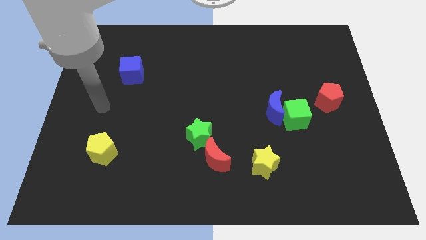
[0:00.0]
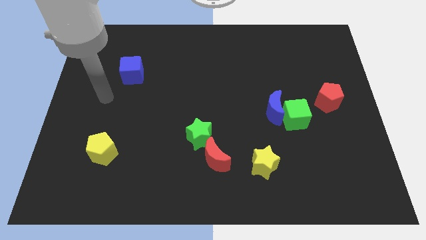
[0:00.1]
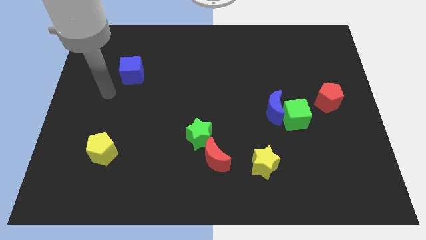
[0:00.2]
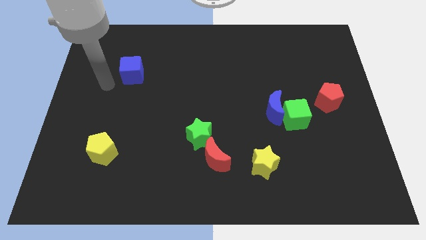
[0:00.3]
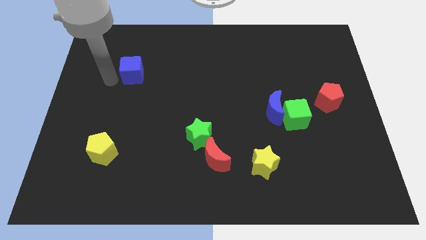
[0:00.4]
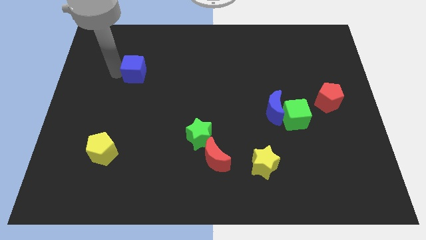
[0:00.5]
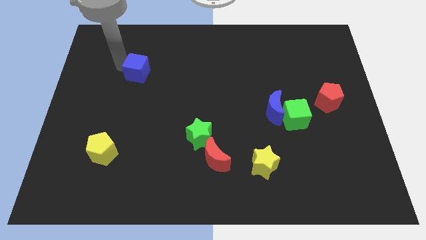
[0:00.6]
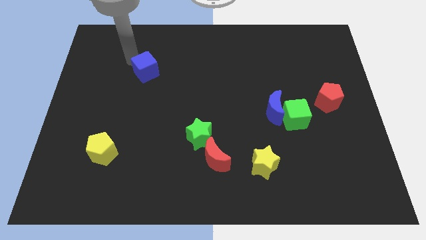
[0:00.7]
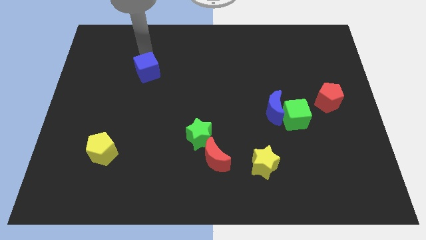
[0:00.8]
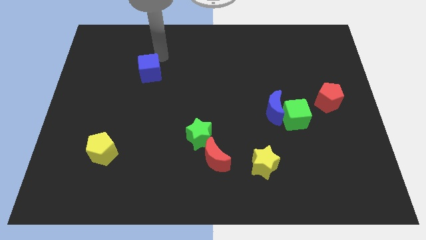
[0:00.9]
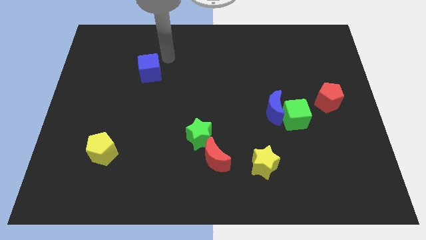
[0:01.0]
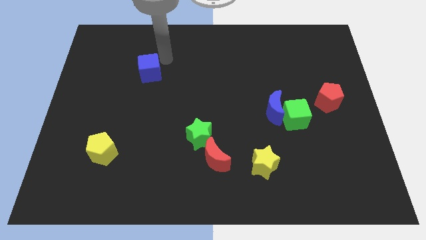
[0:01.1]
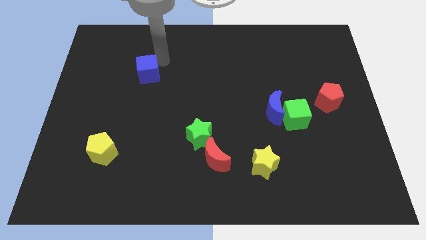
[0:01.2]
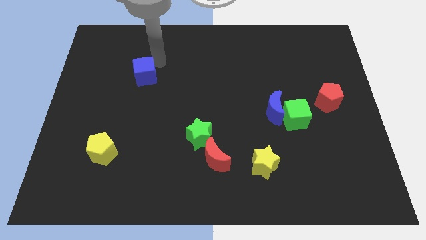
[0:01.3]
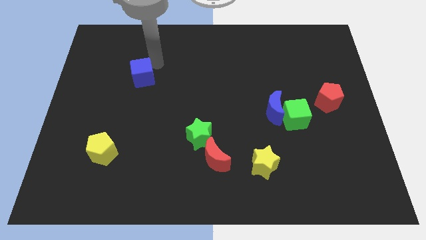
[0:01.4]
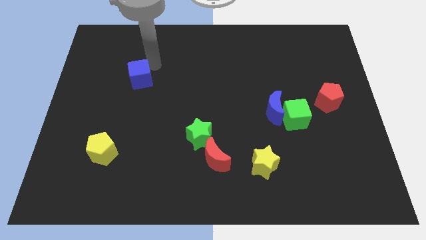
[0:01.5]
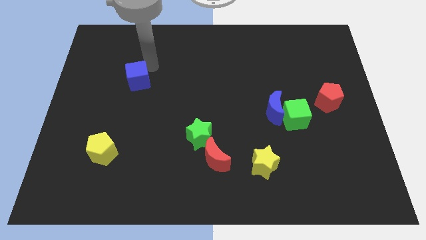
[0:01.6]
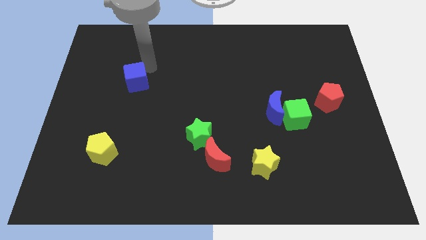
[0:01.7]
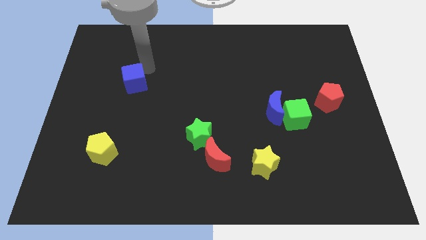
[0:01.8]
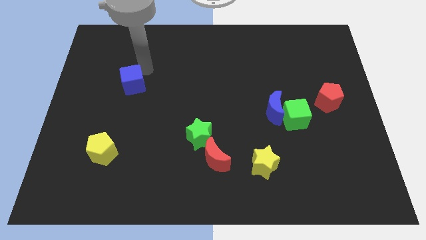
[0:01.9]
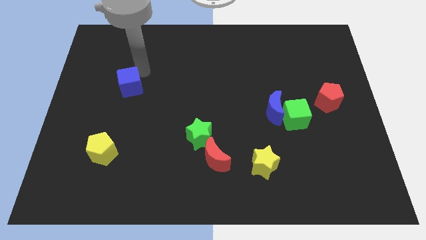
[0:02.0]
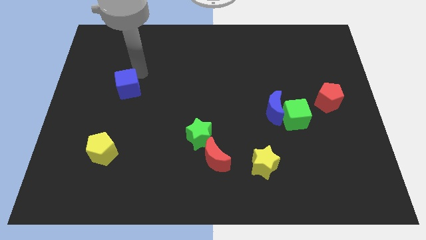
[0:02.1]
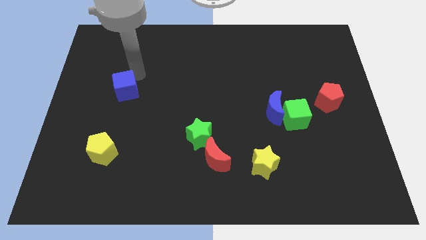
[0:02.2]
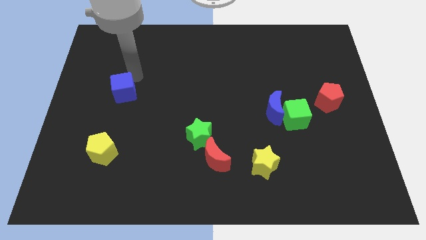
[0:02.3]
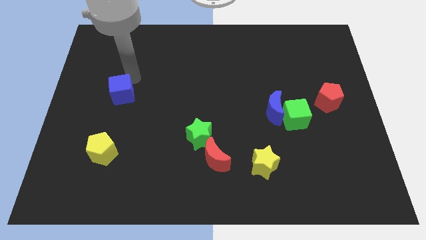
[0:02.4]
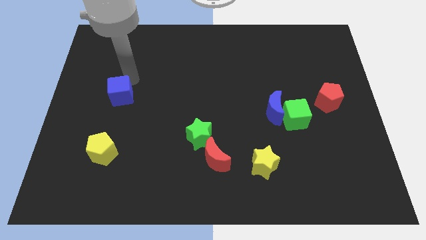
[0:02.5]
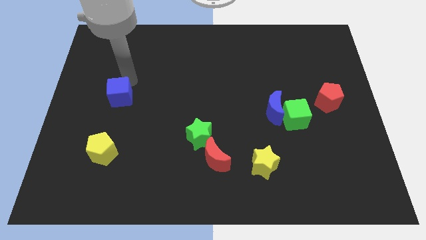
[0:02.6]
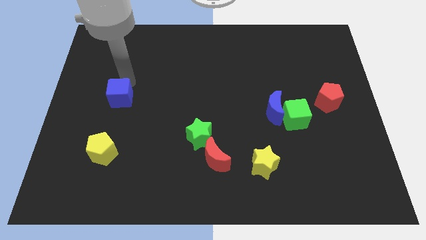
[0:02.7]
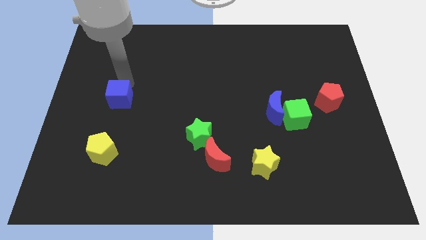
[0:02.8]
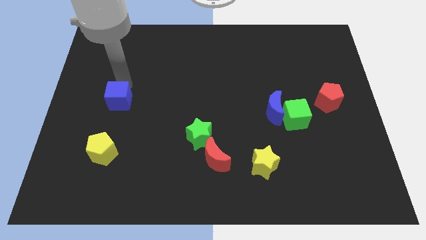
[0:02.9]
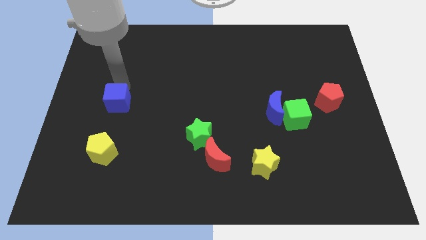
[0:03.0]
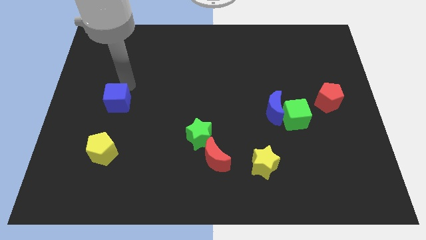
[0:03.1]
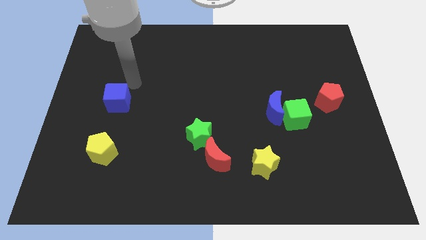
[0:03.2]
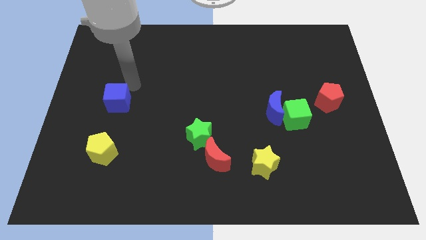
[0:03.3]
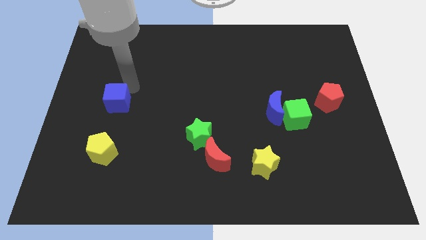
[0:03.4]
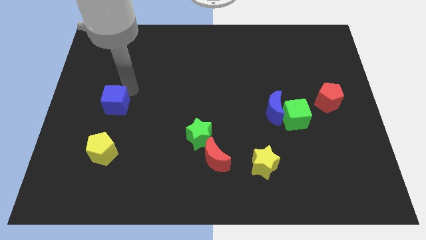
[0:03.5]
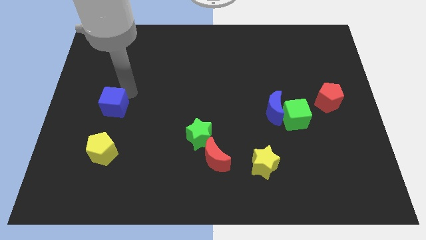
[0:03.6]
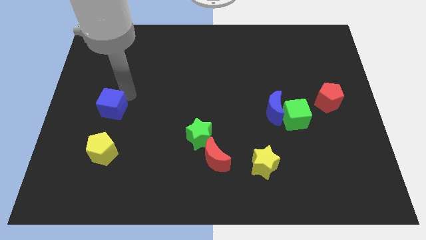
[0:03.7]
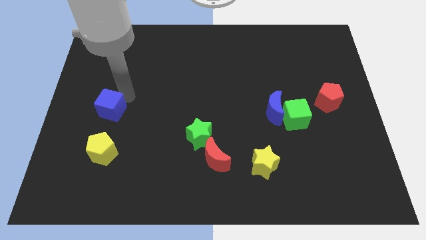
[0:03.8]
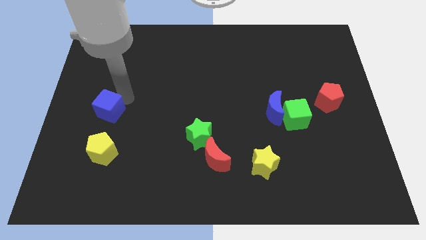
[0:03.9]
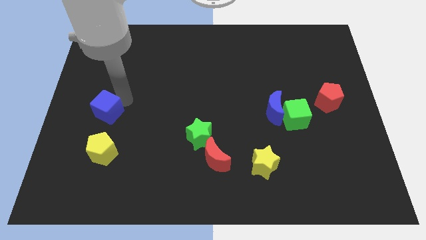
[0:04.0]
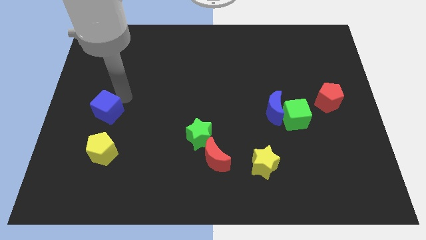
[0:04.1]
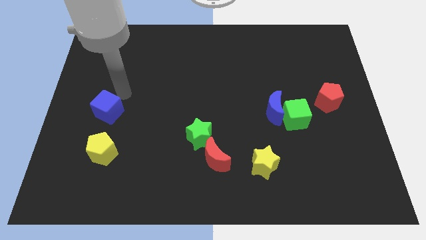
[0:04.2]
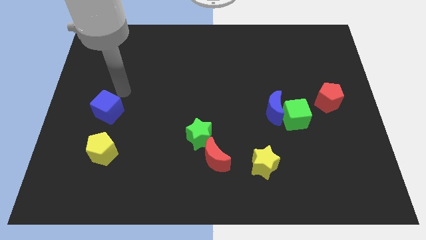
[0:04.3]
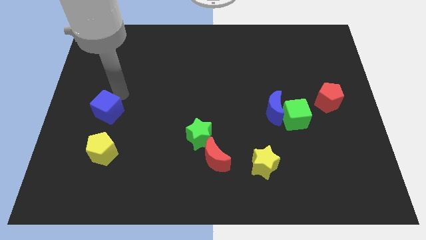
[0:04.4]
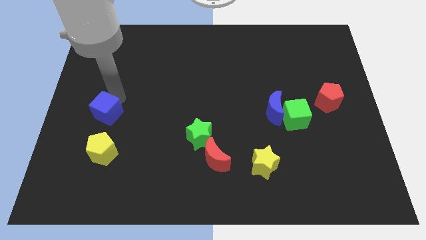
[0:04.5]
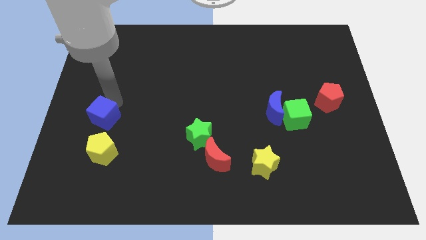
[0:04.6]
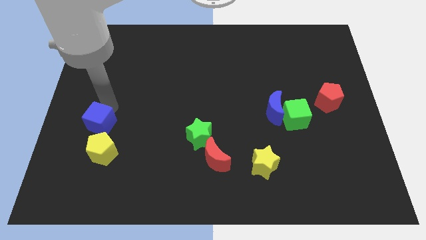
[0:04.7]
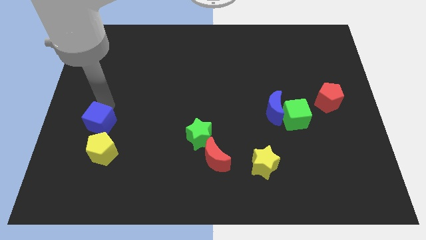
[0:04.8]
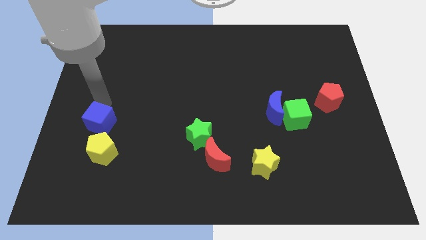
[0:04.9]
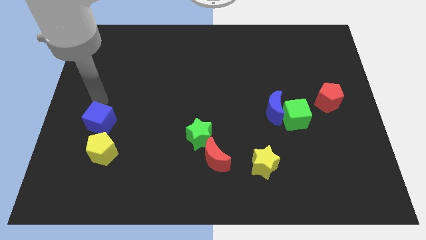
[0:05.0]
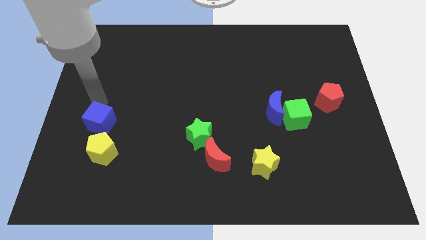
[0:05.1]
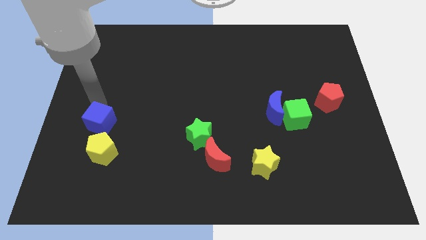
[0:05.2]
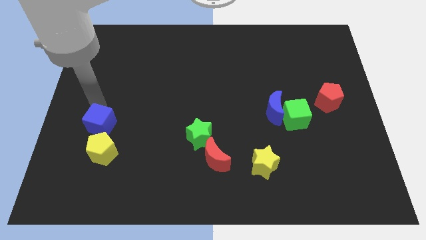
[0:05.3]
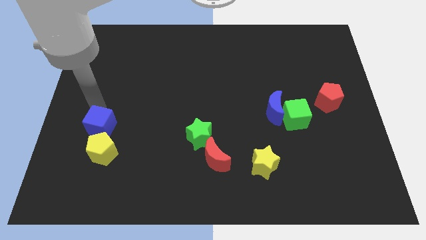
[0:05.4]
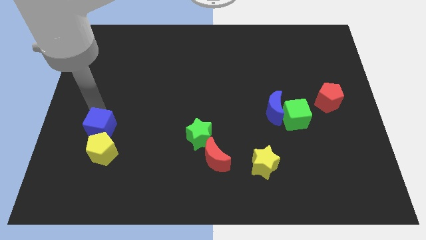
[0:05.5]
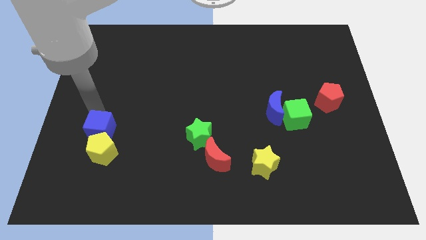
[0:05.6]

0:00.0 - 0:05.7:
push the blue cube next to the yellow pentagon

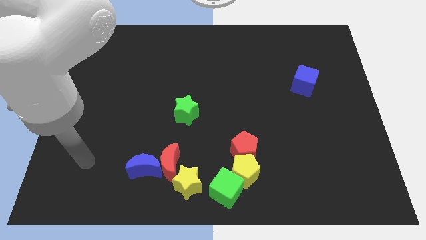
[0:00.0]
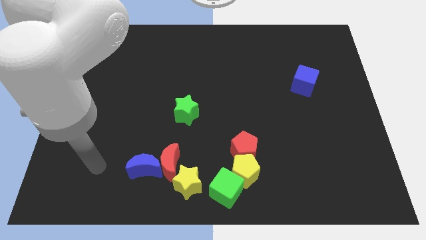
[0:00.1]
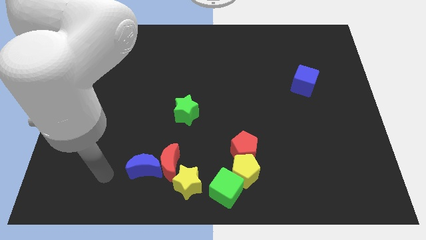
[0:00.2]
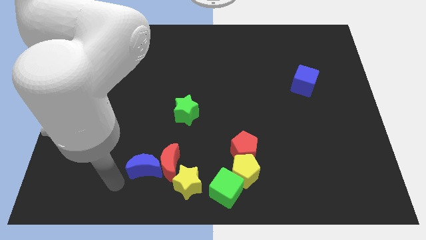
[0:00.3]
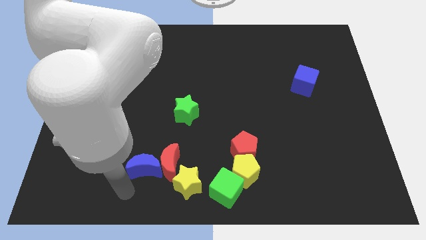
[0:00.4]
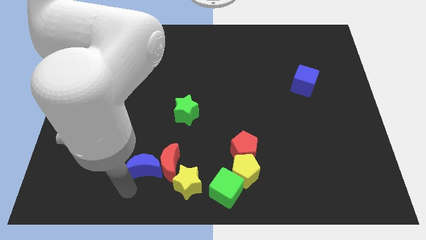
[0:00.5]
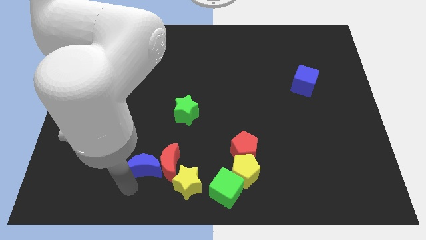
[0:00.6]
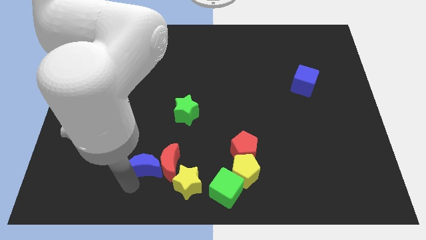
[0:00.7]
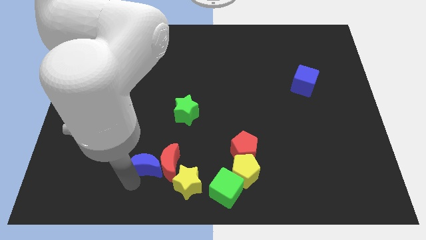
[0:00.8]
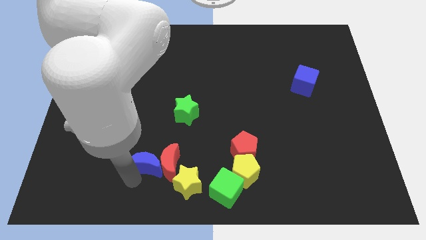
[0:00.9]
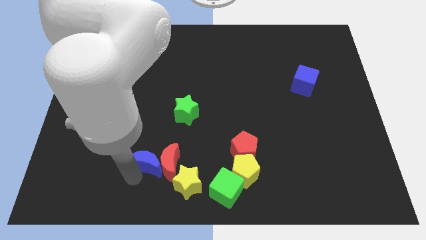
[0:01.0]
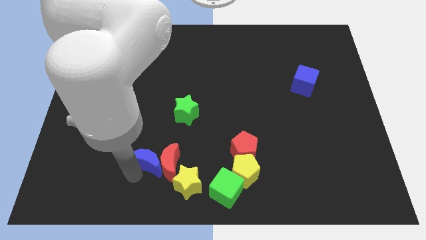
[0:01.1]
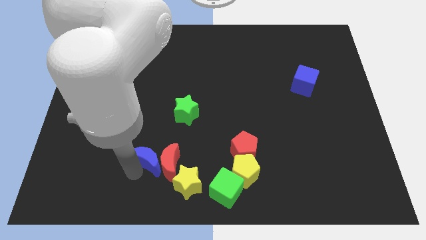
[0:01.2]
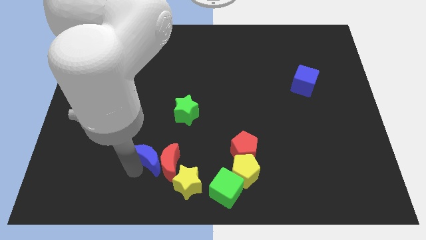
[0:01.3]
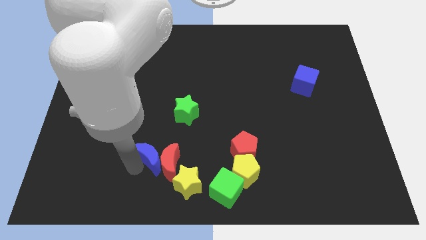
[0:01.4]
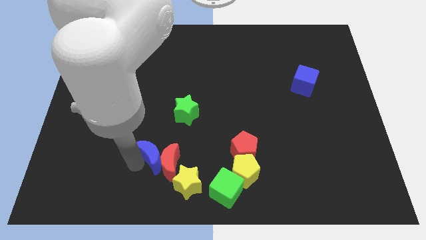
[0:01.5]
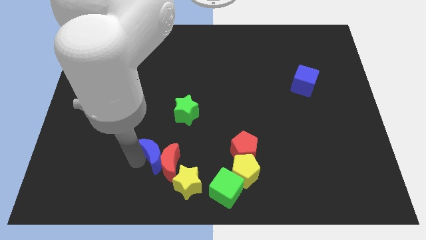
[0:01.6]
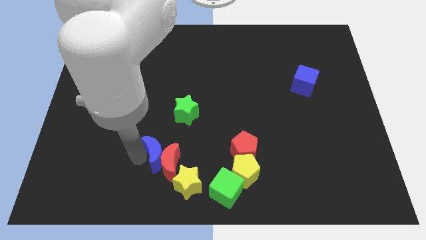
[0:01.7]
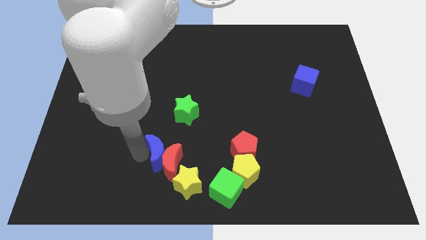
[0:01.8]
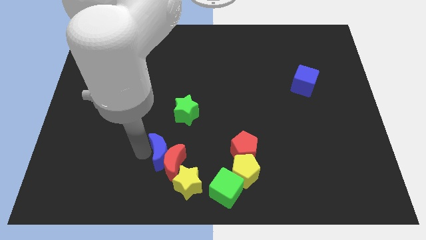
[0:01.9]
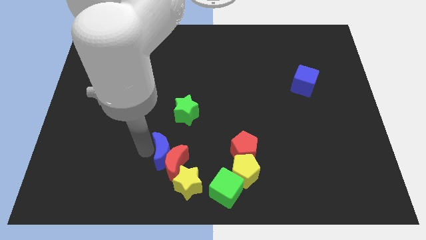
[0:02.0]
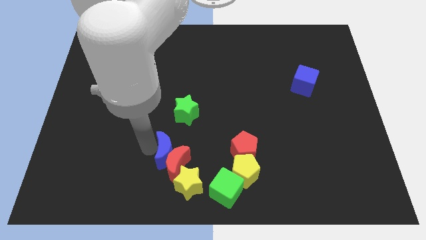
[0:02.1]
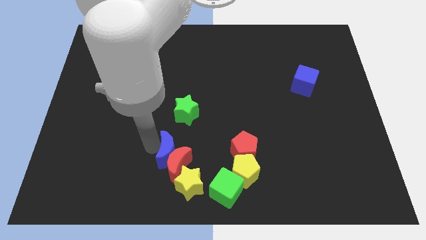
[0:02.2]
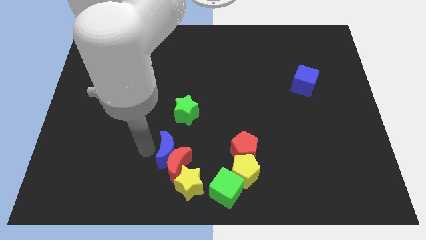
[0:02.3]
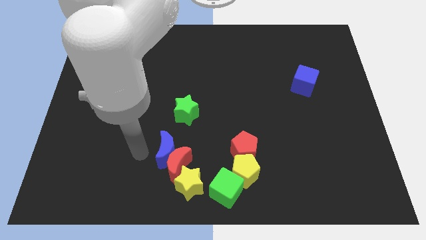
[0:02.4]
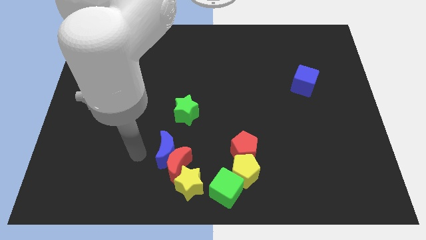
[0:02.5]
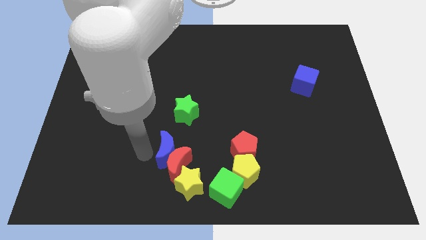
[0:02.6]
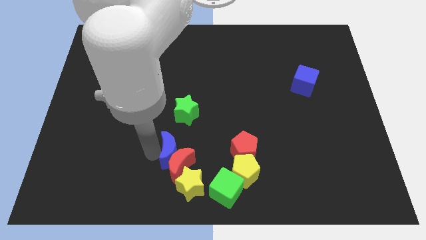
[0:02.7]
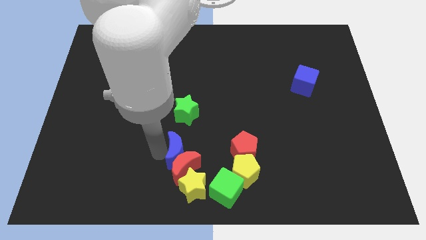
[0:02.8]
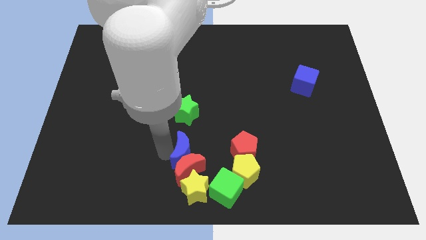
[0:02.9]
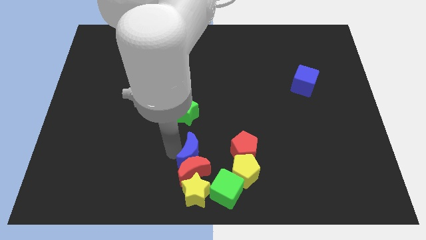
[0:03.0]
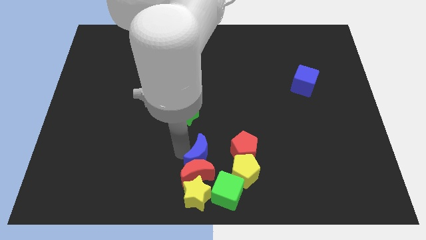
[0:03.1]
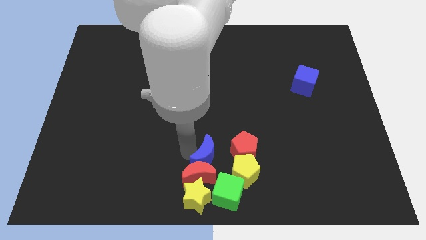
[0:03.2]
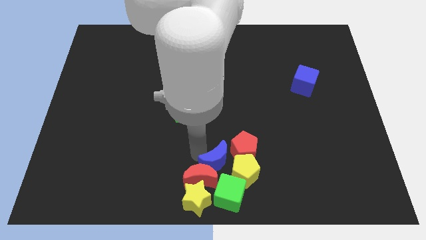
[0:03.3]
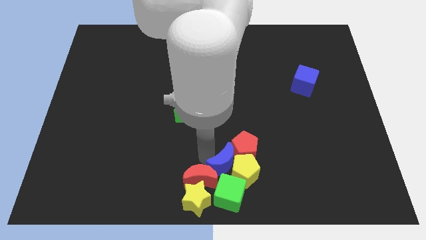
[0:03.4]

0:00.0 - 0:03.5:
slide the blue moon close to the yellow pentagon
